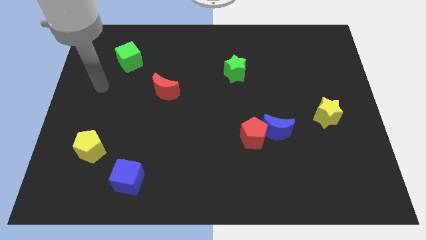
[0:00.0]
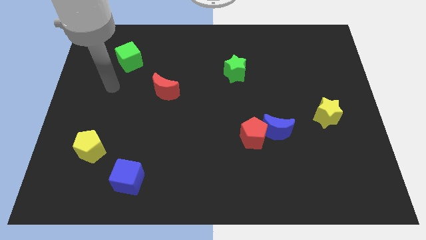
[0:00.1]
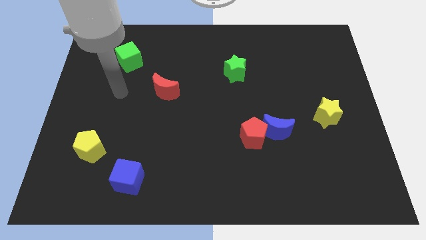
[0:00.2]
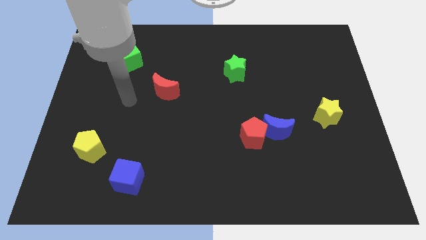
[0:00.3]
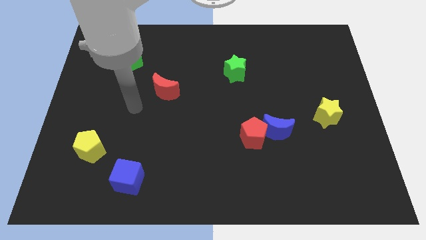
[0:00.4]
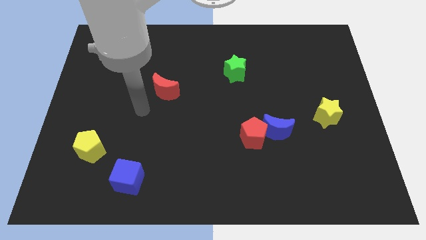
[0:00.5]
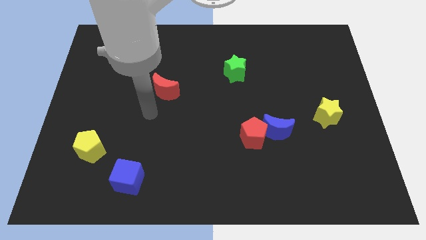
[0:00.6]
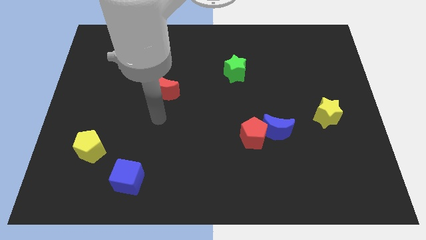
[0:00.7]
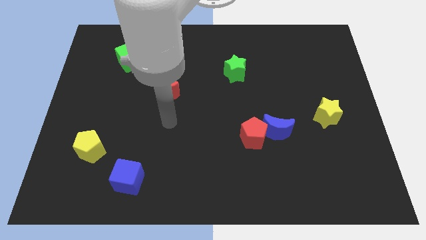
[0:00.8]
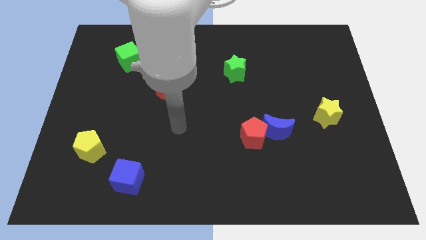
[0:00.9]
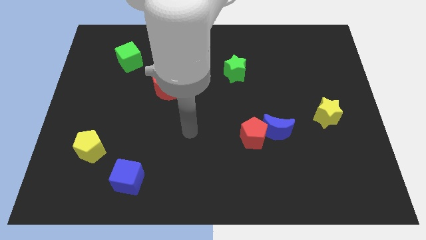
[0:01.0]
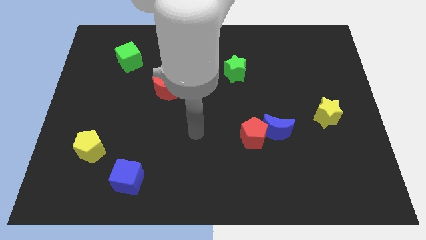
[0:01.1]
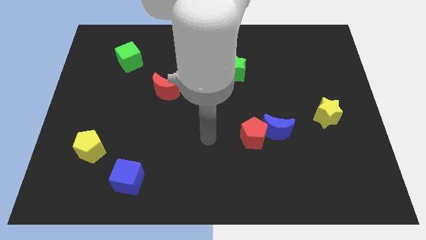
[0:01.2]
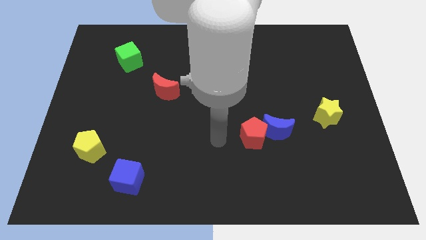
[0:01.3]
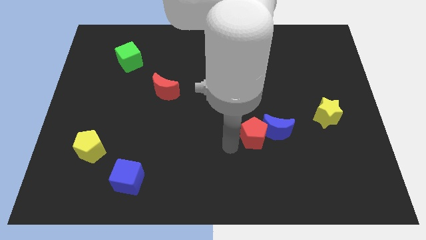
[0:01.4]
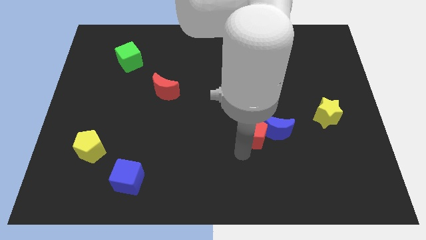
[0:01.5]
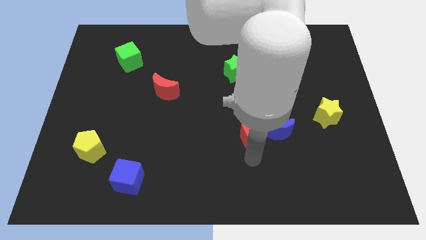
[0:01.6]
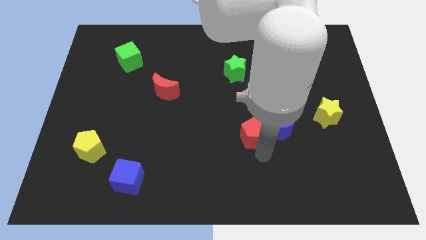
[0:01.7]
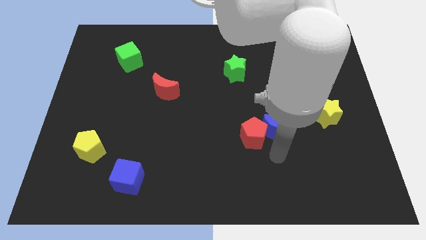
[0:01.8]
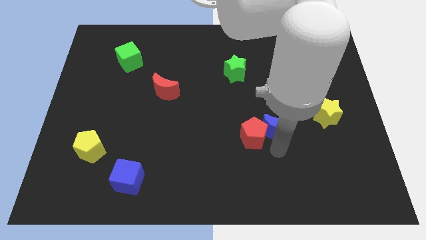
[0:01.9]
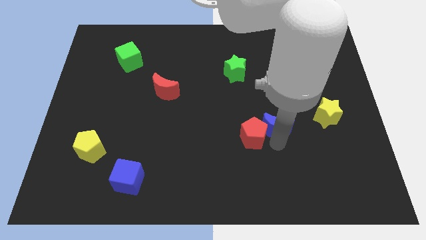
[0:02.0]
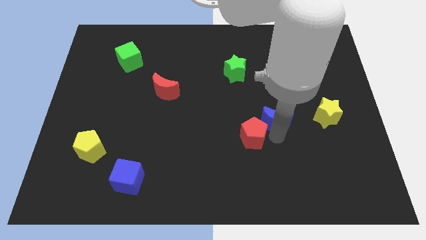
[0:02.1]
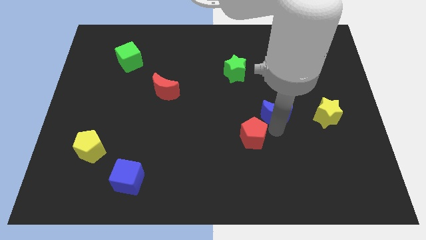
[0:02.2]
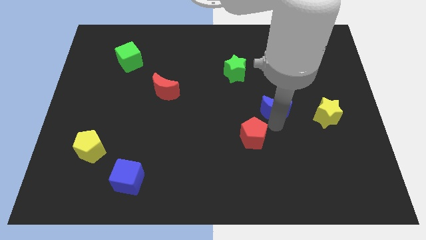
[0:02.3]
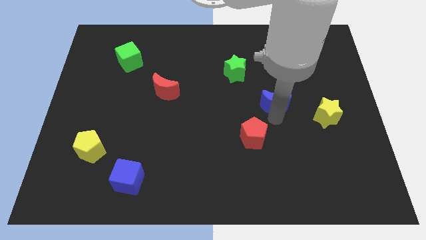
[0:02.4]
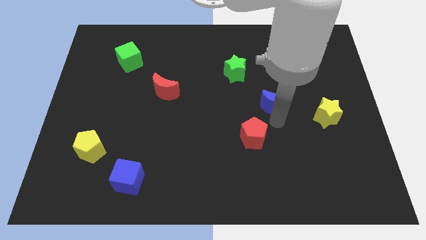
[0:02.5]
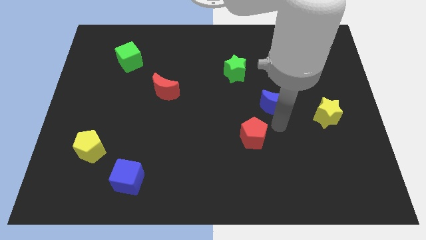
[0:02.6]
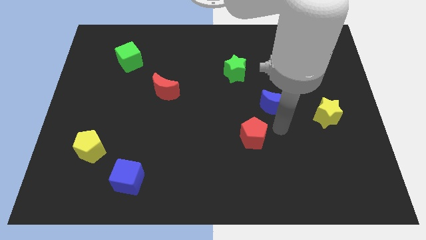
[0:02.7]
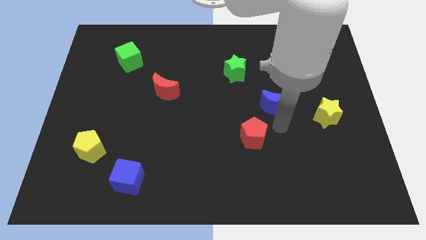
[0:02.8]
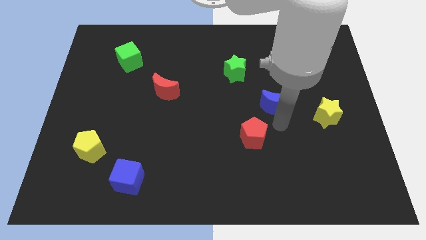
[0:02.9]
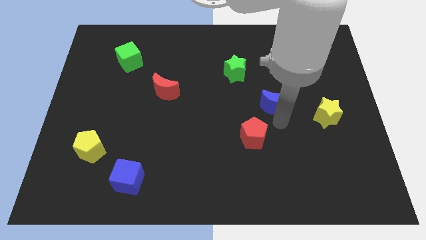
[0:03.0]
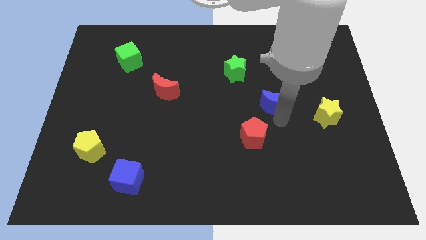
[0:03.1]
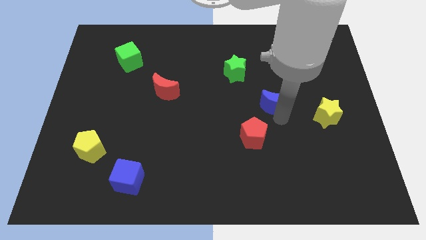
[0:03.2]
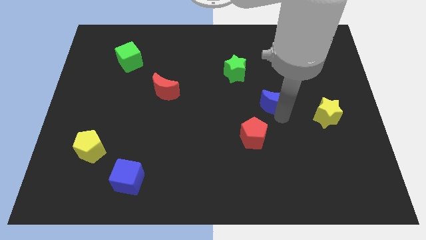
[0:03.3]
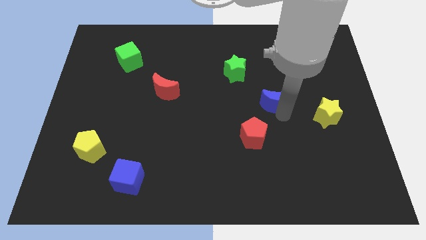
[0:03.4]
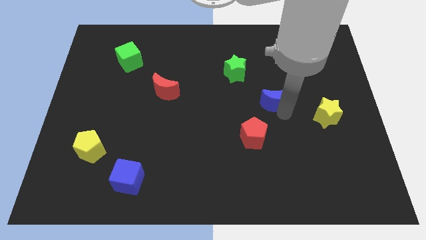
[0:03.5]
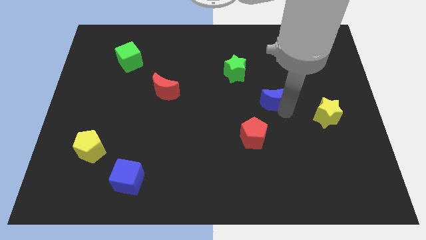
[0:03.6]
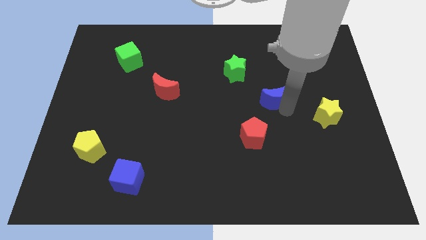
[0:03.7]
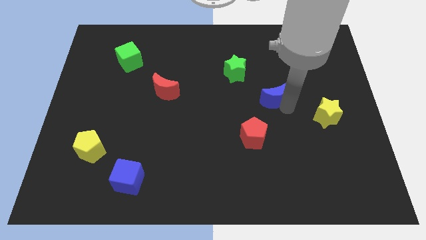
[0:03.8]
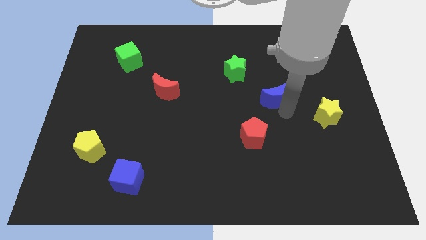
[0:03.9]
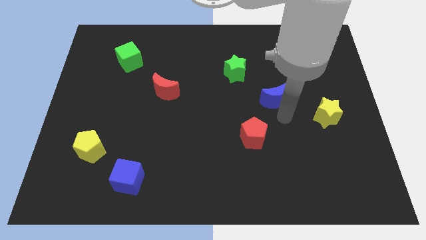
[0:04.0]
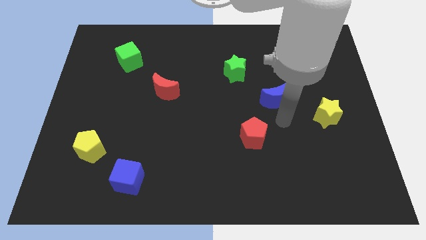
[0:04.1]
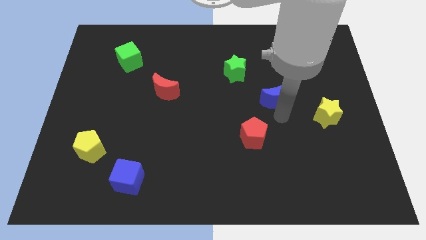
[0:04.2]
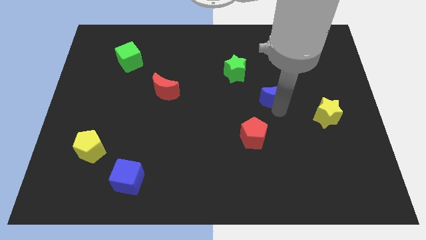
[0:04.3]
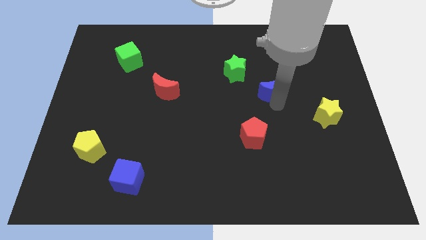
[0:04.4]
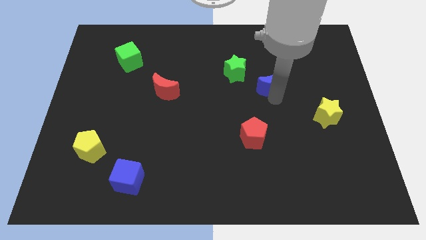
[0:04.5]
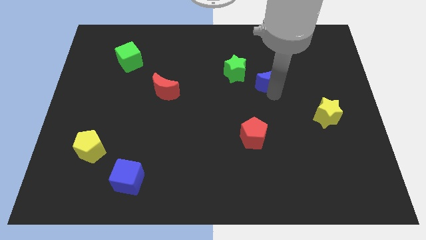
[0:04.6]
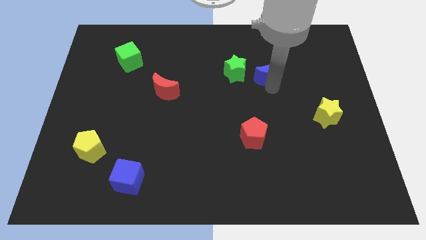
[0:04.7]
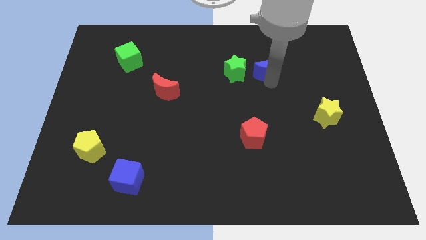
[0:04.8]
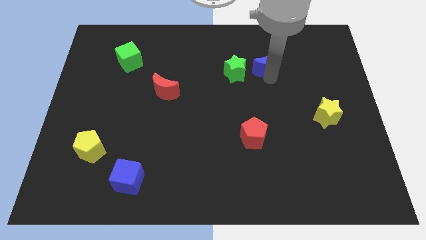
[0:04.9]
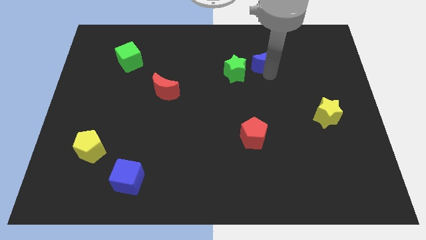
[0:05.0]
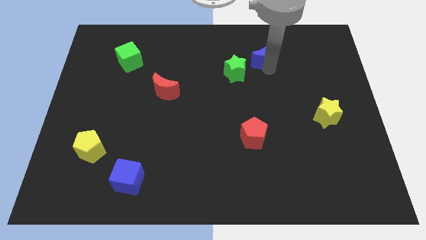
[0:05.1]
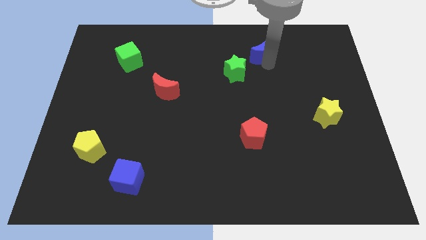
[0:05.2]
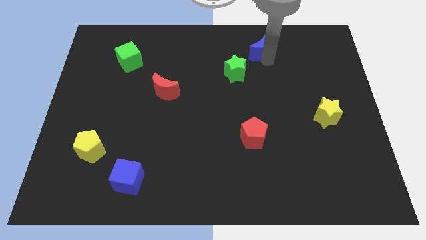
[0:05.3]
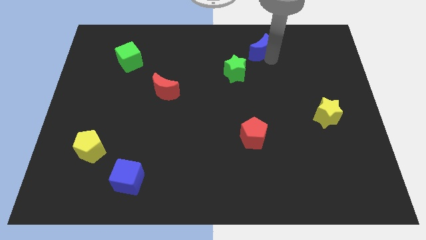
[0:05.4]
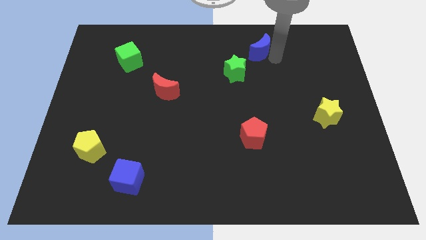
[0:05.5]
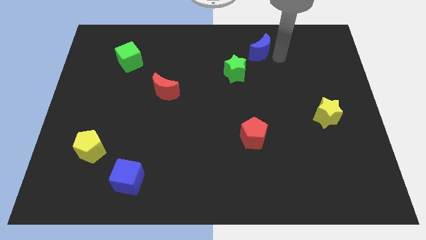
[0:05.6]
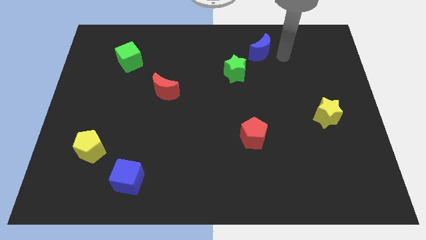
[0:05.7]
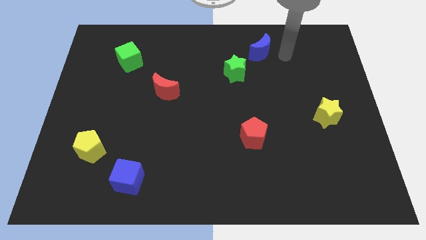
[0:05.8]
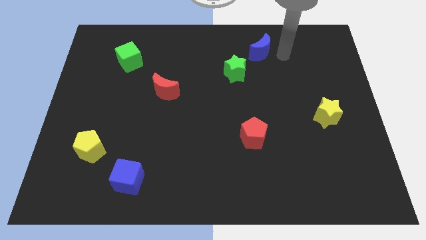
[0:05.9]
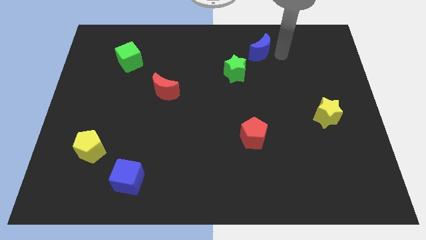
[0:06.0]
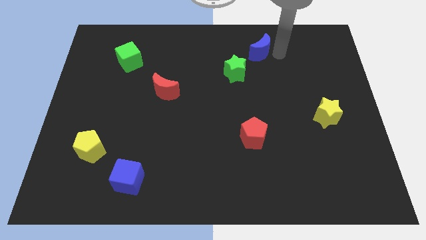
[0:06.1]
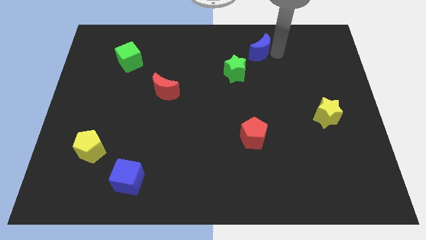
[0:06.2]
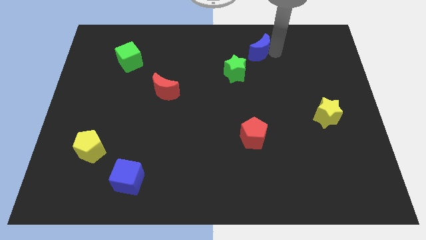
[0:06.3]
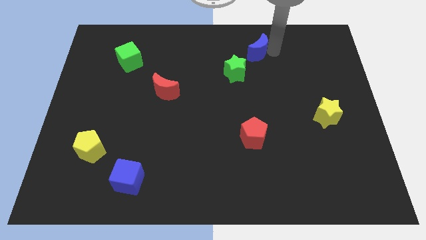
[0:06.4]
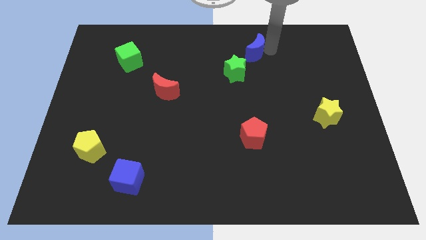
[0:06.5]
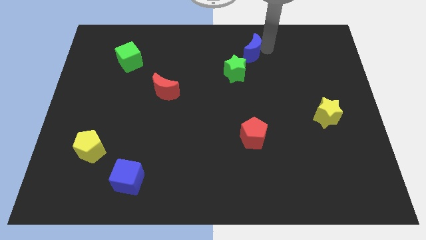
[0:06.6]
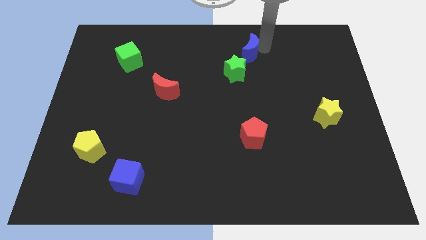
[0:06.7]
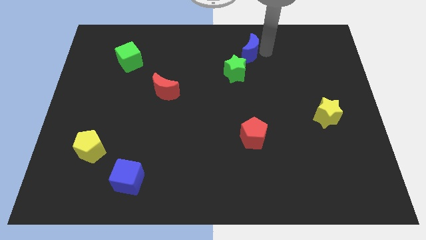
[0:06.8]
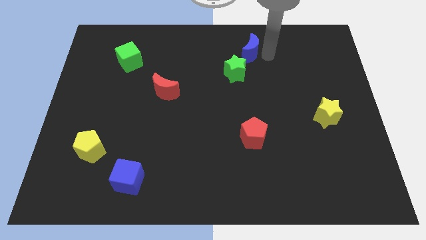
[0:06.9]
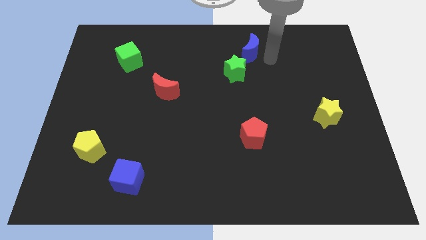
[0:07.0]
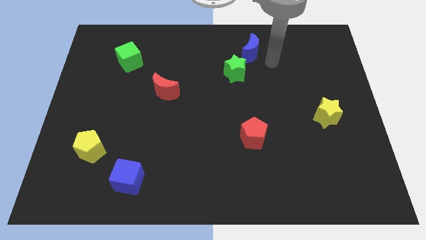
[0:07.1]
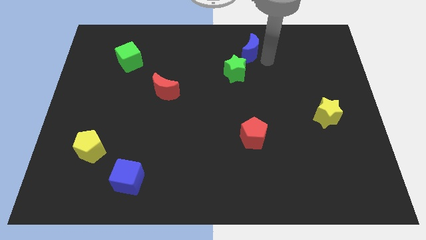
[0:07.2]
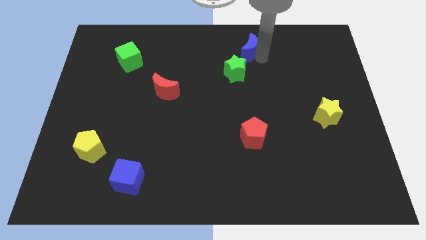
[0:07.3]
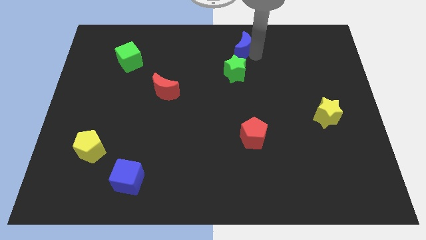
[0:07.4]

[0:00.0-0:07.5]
push the blue moon to the top
